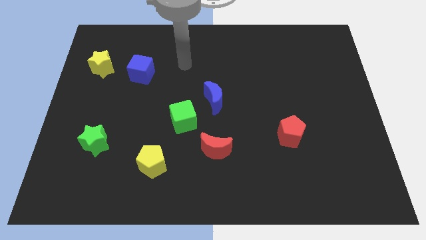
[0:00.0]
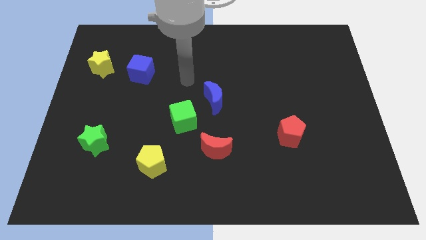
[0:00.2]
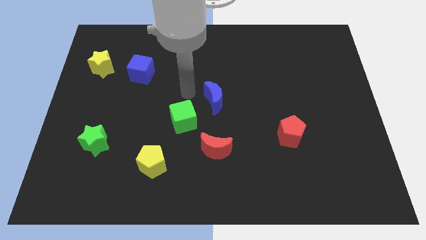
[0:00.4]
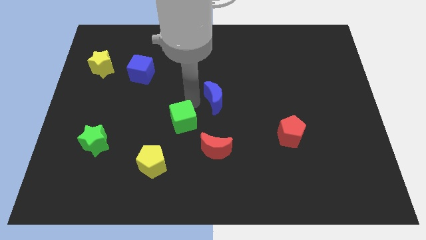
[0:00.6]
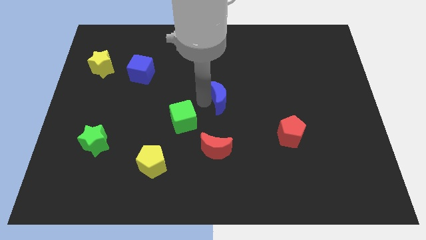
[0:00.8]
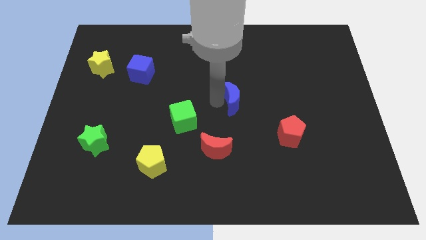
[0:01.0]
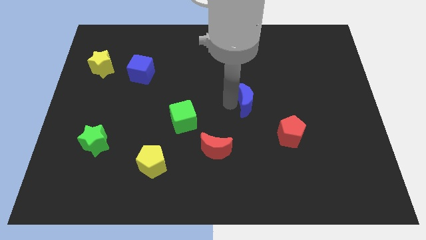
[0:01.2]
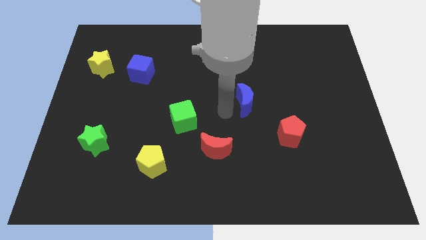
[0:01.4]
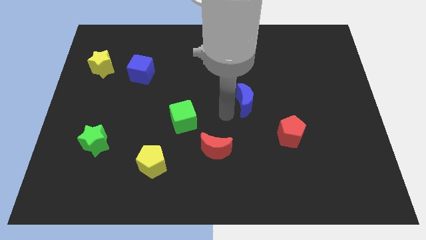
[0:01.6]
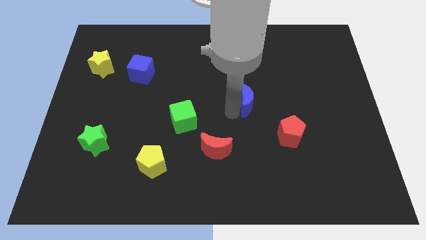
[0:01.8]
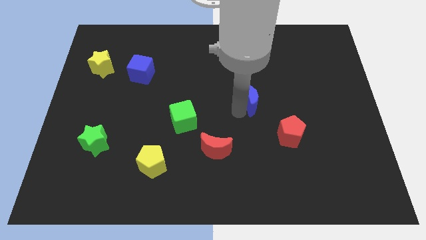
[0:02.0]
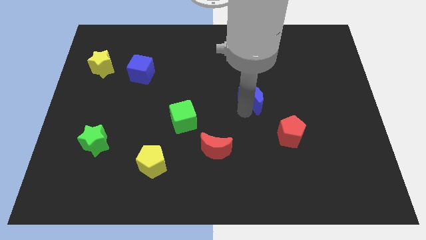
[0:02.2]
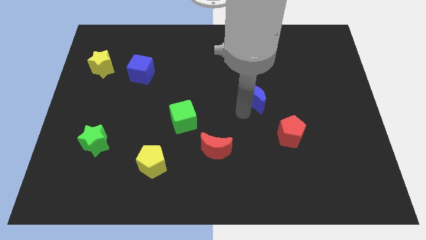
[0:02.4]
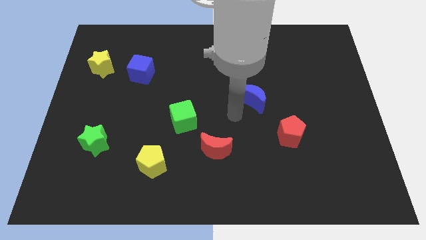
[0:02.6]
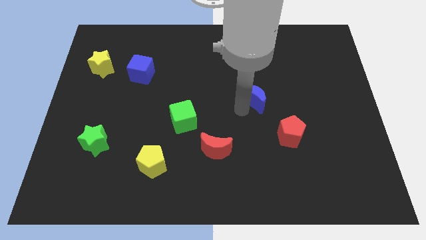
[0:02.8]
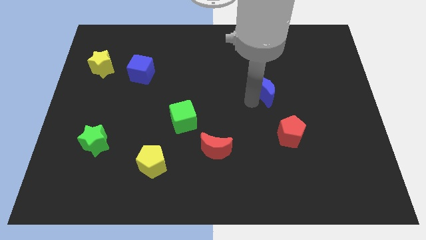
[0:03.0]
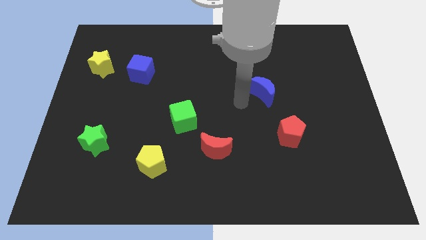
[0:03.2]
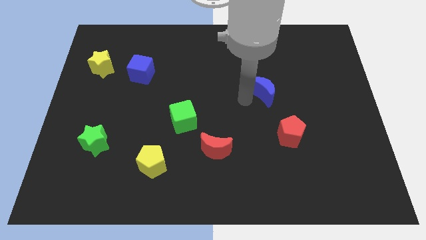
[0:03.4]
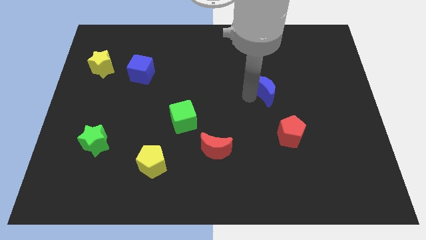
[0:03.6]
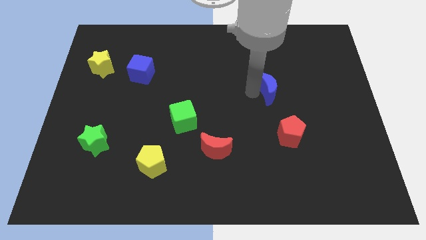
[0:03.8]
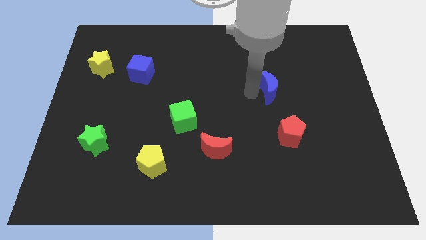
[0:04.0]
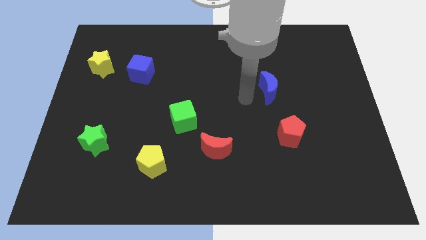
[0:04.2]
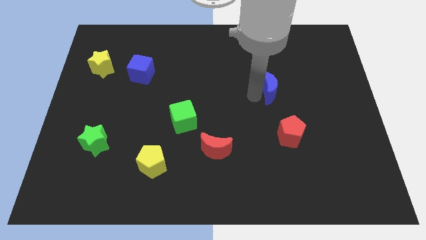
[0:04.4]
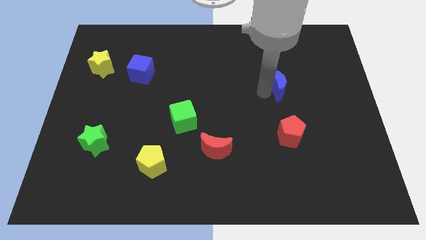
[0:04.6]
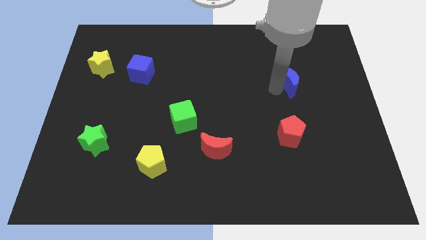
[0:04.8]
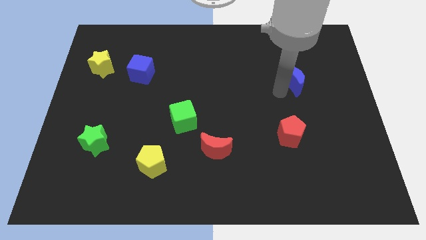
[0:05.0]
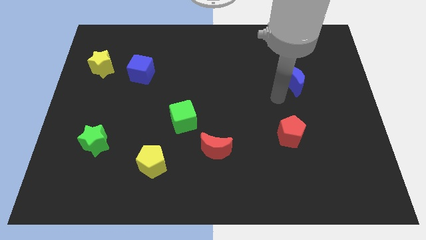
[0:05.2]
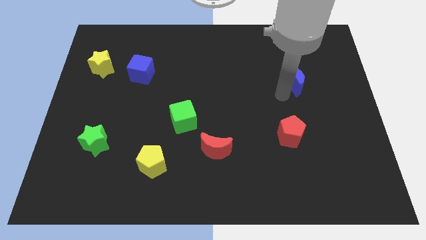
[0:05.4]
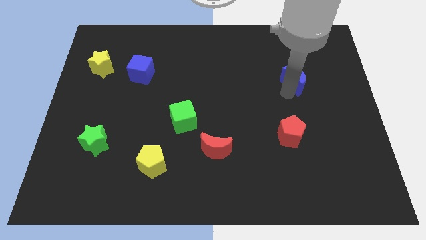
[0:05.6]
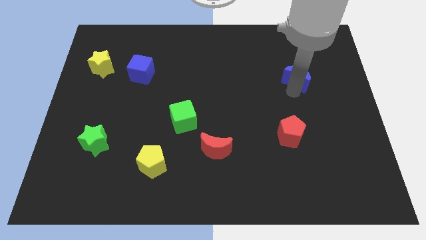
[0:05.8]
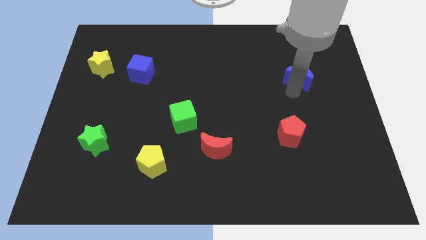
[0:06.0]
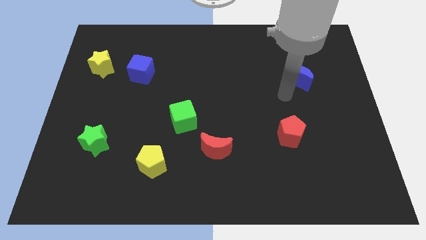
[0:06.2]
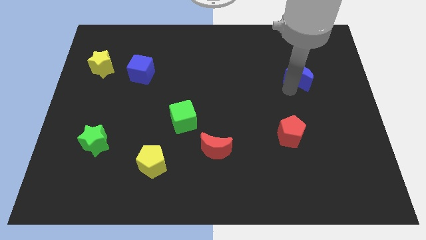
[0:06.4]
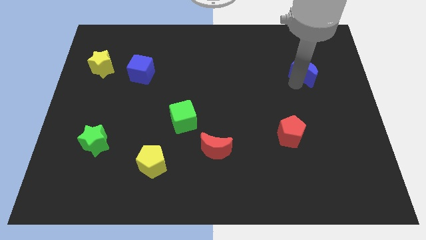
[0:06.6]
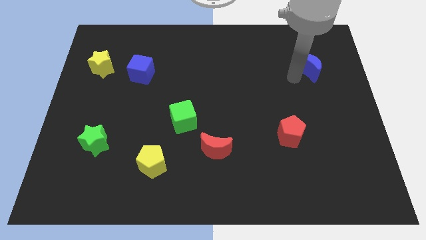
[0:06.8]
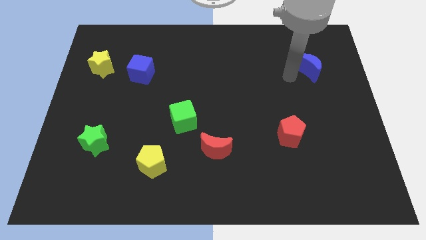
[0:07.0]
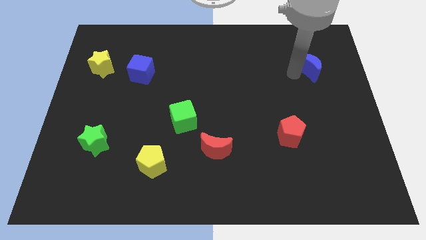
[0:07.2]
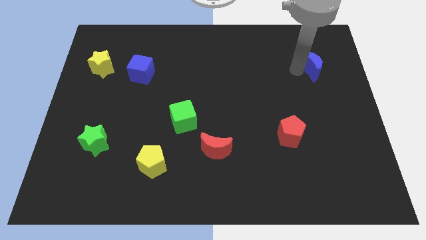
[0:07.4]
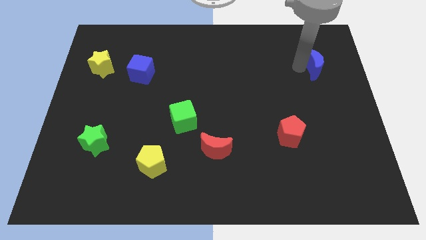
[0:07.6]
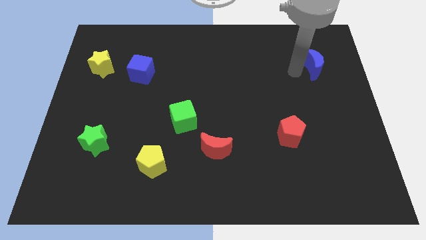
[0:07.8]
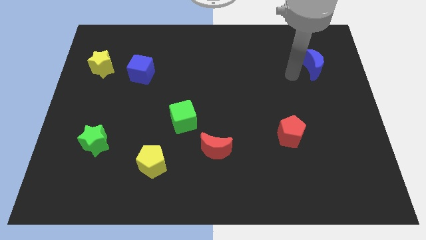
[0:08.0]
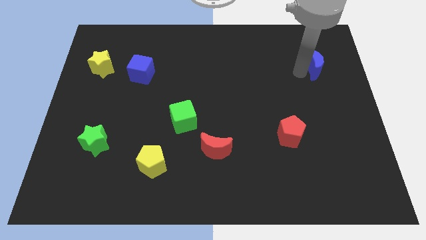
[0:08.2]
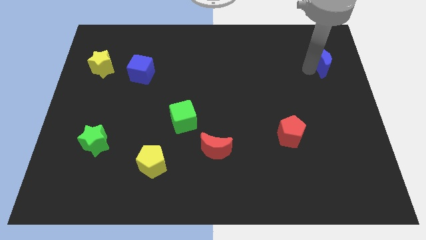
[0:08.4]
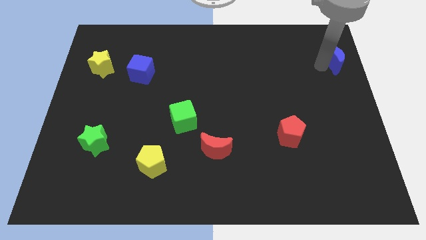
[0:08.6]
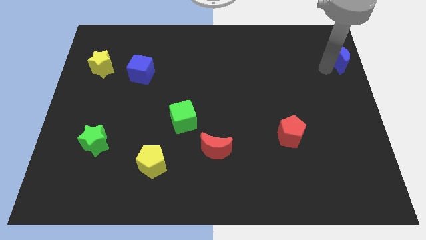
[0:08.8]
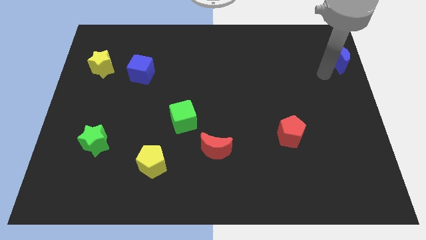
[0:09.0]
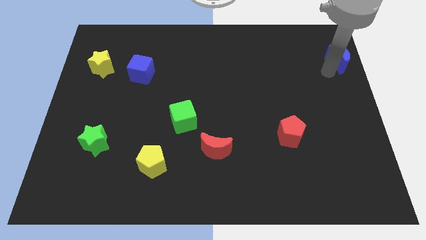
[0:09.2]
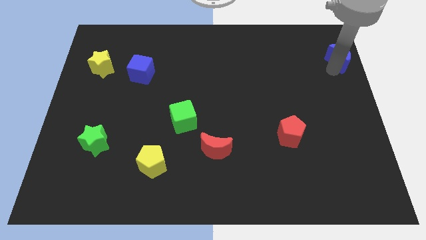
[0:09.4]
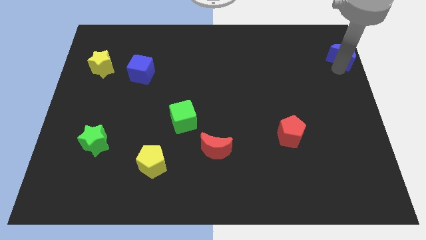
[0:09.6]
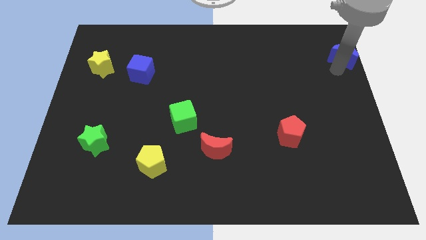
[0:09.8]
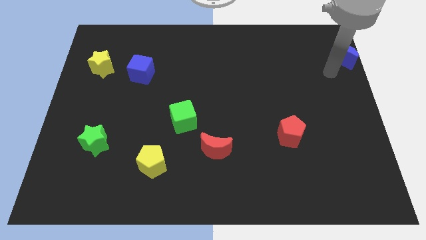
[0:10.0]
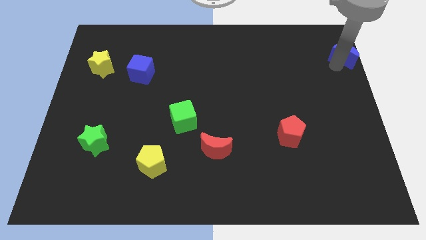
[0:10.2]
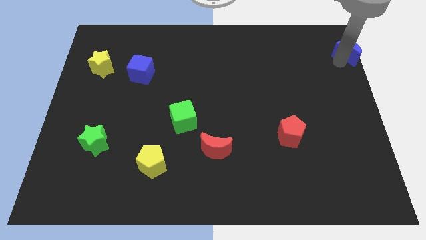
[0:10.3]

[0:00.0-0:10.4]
move the blue moon to the upper right corner
